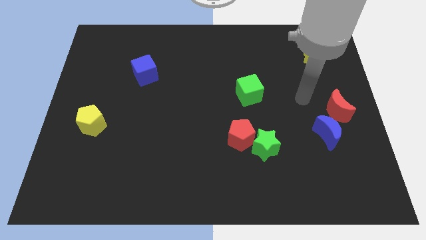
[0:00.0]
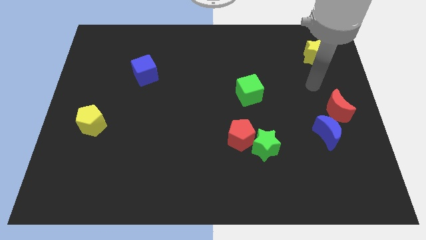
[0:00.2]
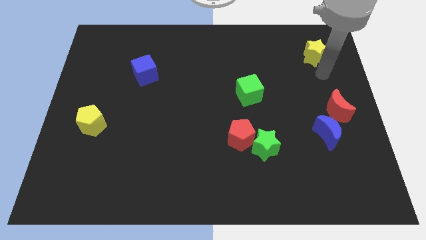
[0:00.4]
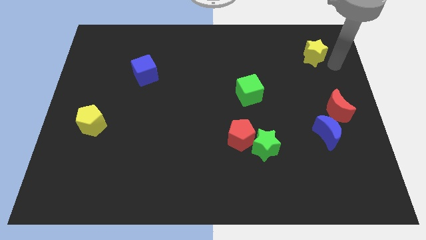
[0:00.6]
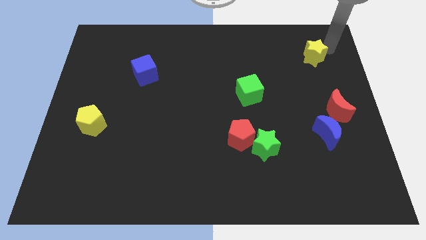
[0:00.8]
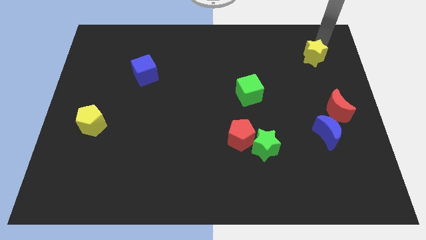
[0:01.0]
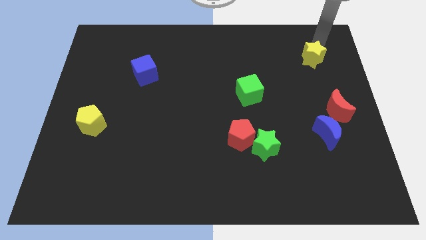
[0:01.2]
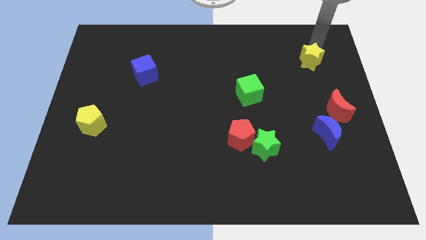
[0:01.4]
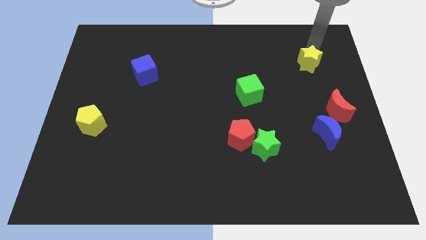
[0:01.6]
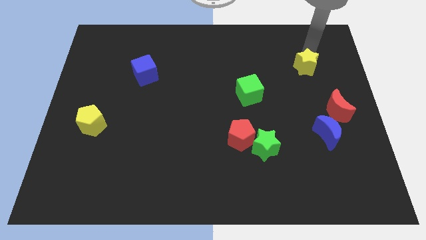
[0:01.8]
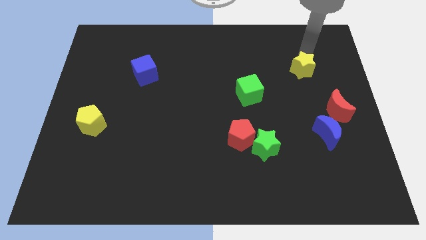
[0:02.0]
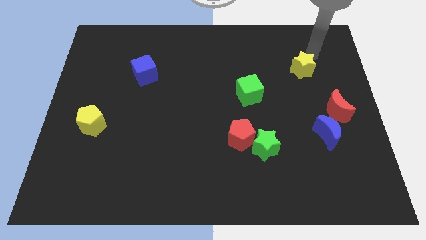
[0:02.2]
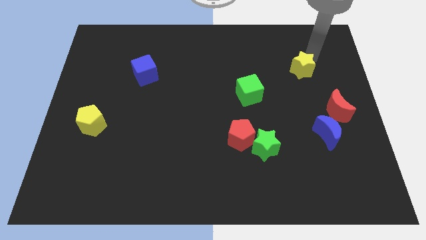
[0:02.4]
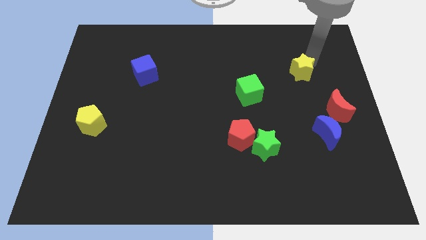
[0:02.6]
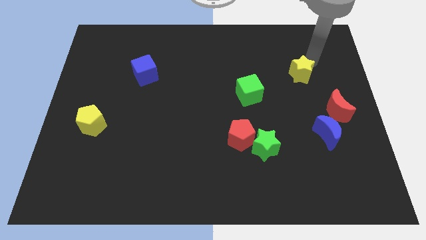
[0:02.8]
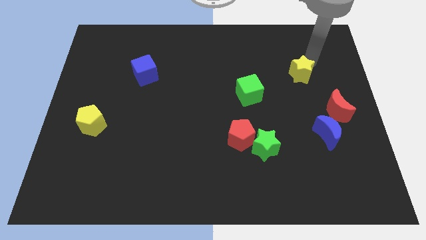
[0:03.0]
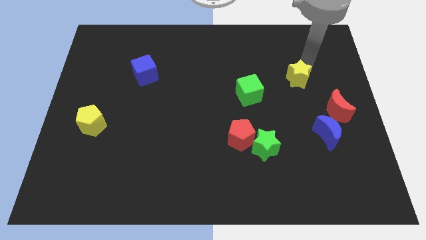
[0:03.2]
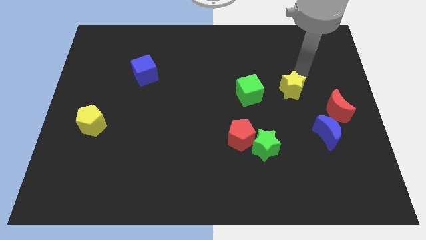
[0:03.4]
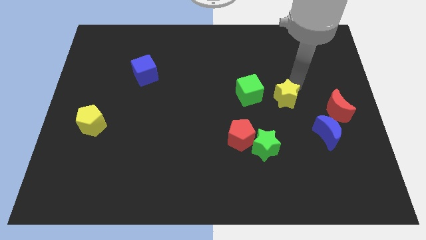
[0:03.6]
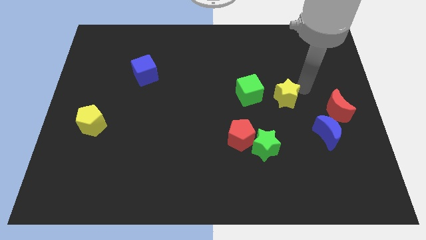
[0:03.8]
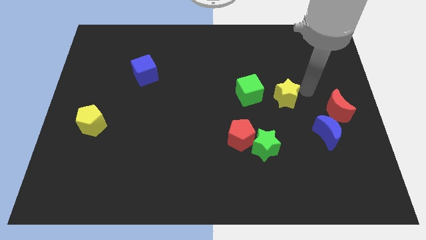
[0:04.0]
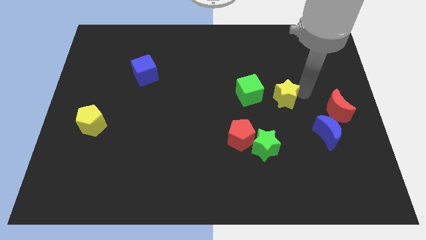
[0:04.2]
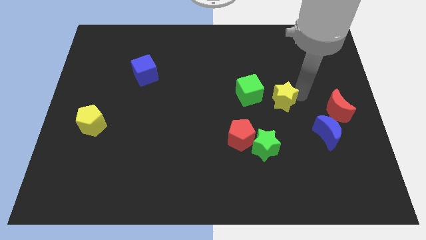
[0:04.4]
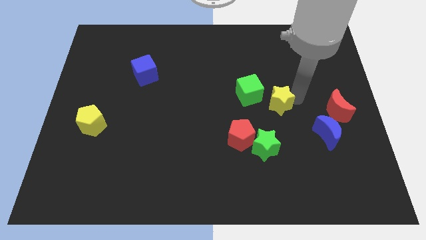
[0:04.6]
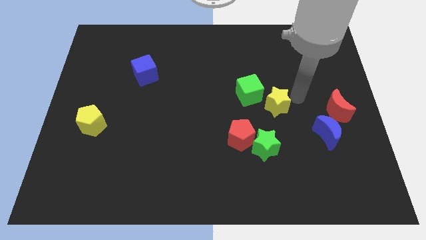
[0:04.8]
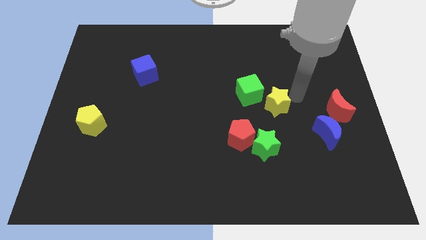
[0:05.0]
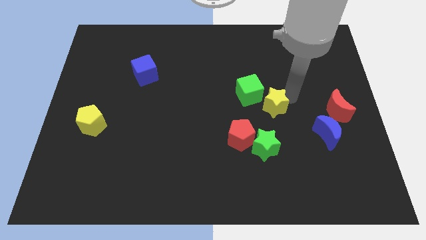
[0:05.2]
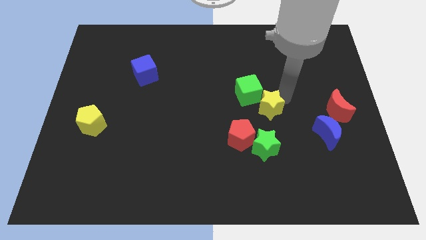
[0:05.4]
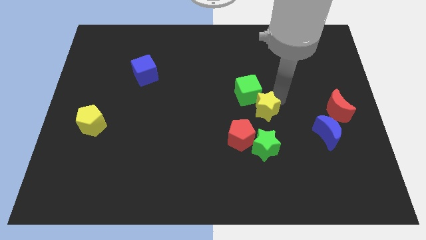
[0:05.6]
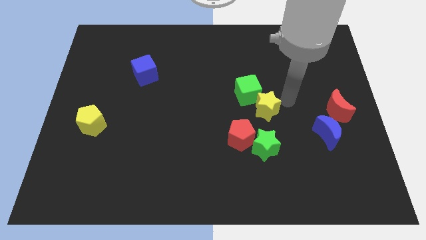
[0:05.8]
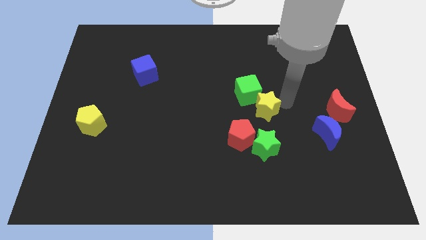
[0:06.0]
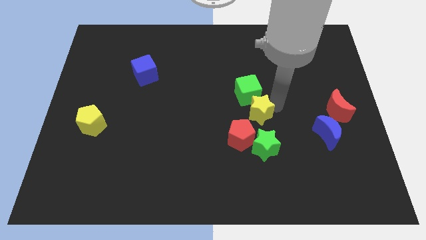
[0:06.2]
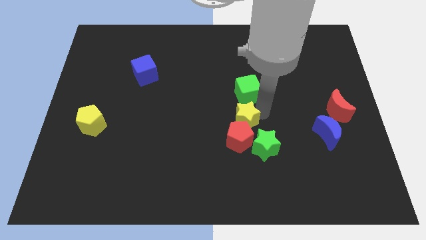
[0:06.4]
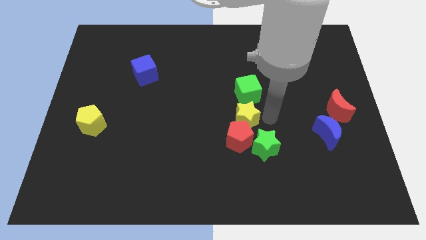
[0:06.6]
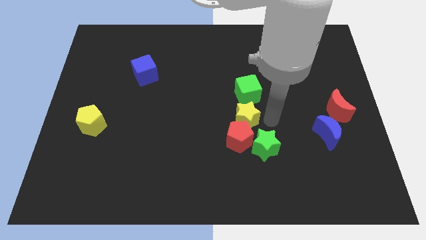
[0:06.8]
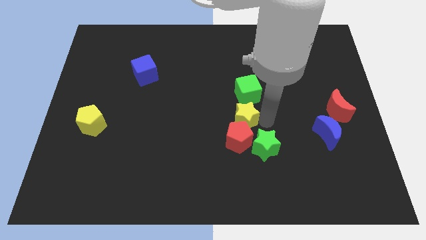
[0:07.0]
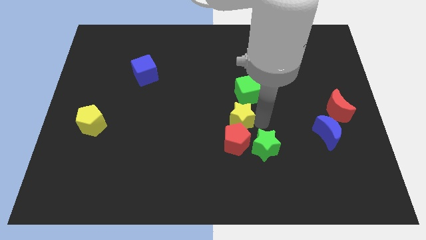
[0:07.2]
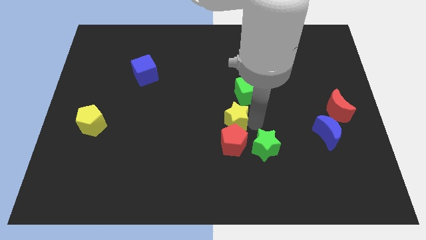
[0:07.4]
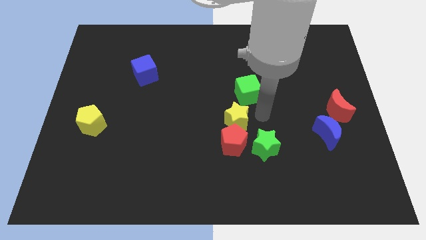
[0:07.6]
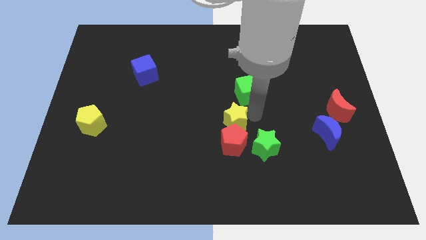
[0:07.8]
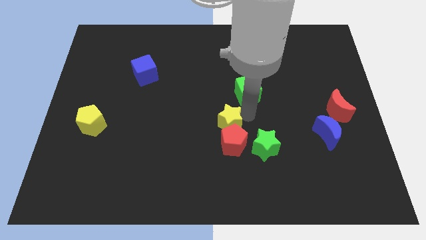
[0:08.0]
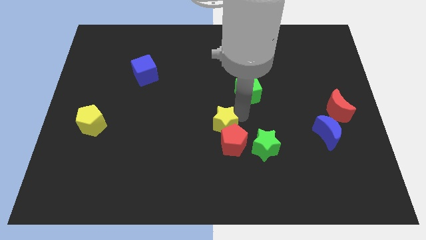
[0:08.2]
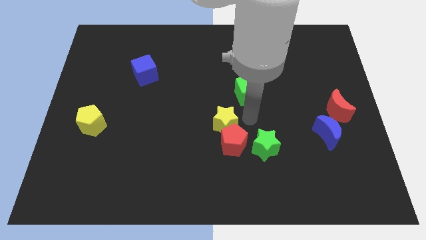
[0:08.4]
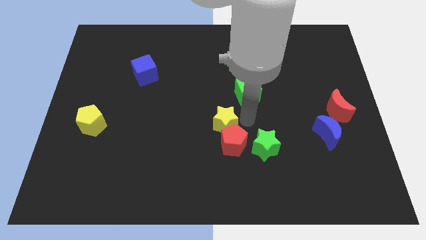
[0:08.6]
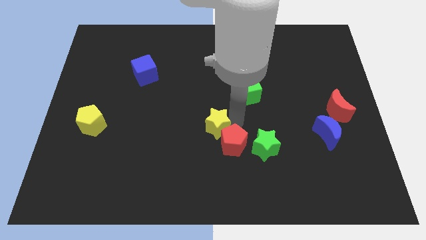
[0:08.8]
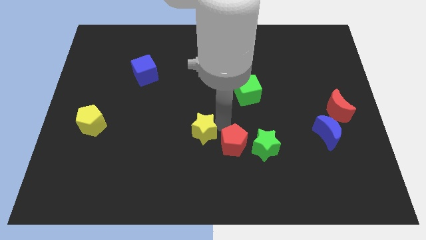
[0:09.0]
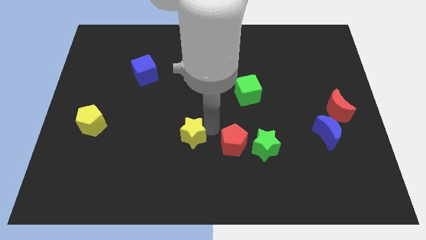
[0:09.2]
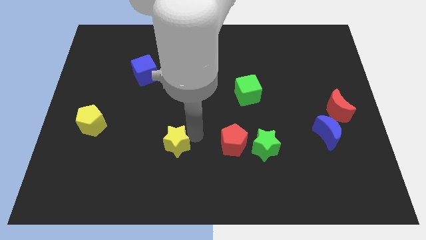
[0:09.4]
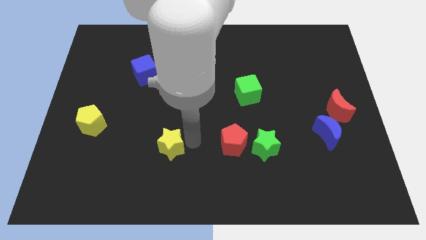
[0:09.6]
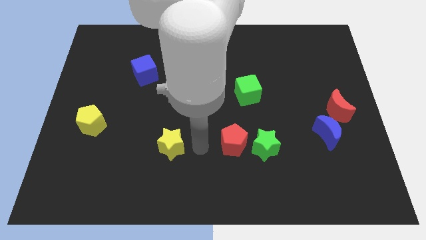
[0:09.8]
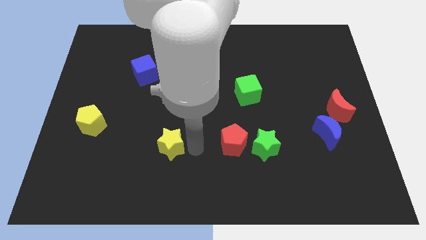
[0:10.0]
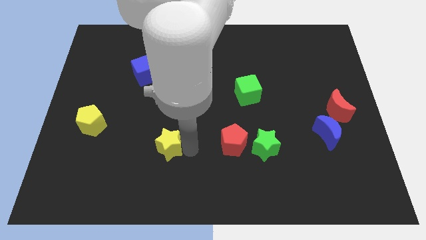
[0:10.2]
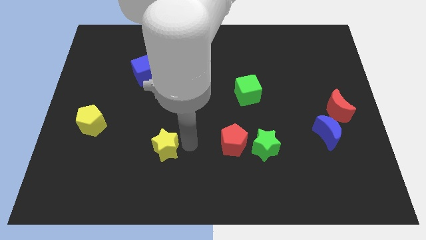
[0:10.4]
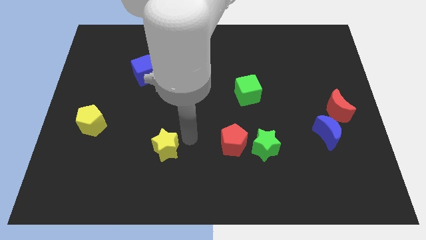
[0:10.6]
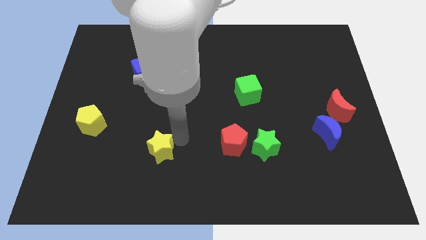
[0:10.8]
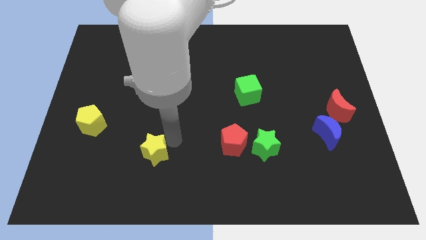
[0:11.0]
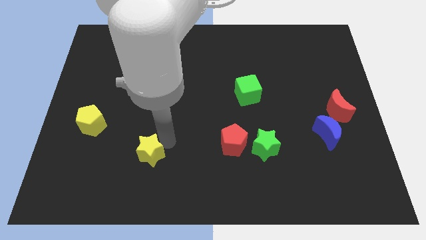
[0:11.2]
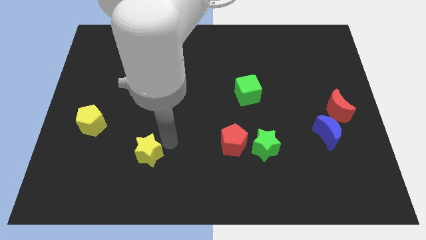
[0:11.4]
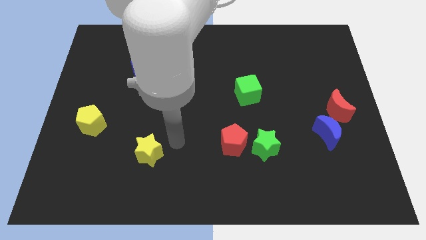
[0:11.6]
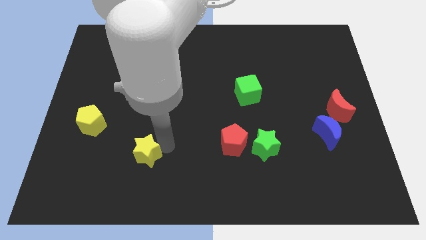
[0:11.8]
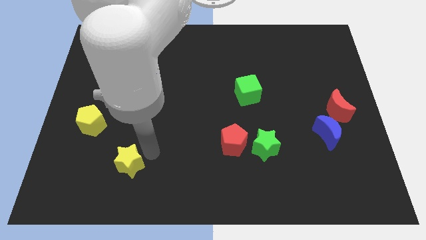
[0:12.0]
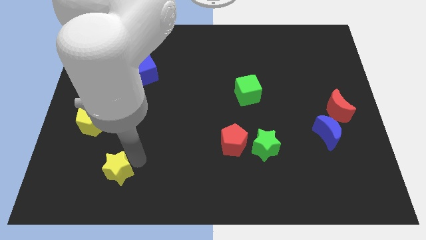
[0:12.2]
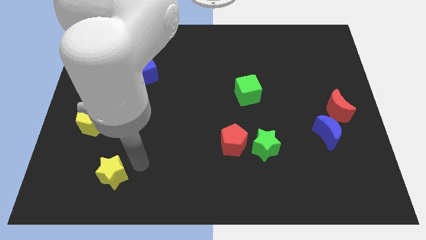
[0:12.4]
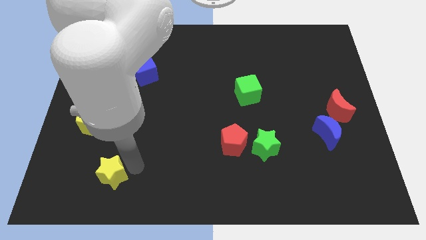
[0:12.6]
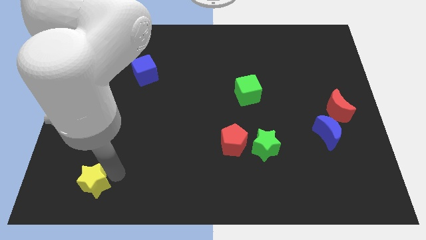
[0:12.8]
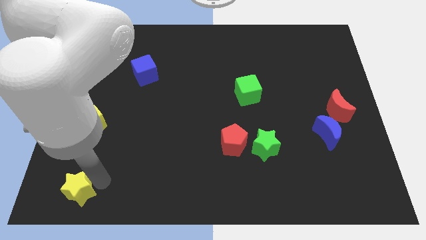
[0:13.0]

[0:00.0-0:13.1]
put the yellow star to the bottom left of the board
